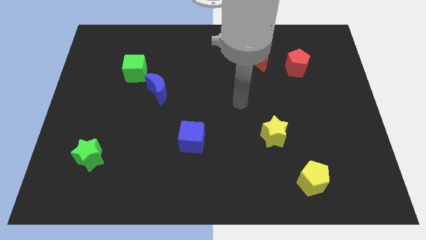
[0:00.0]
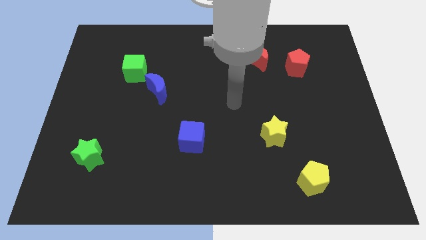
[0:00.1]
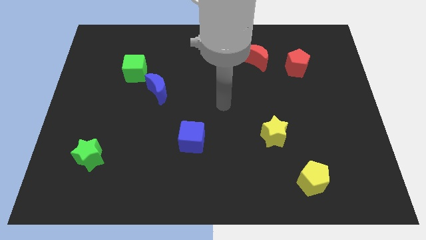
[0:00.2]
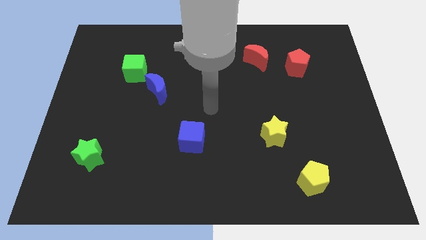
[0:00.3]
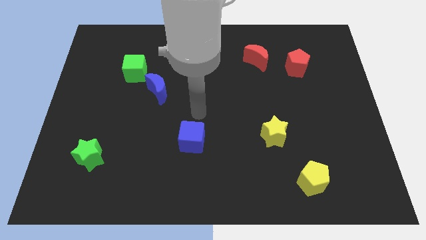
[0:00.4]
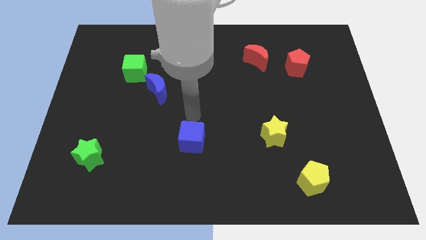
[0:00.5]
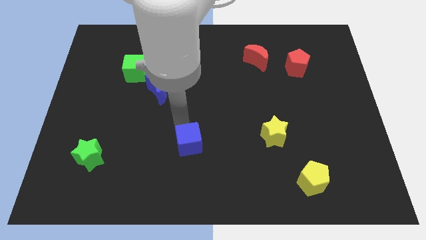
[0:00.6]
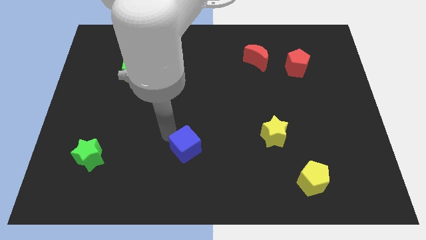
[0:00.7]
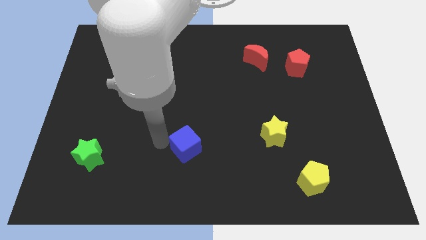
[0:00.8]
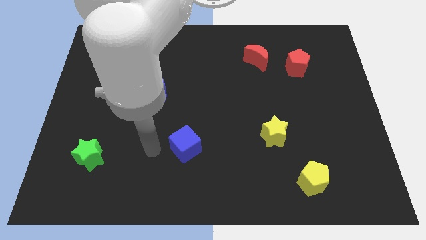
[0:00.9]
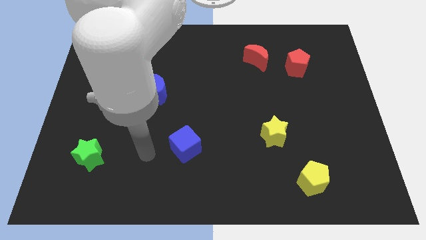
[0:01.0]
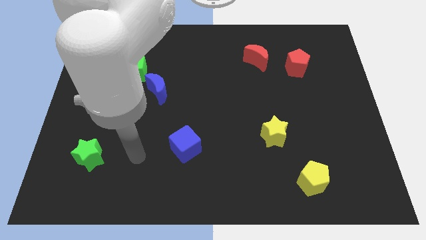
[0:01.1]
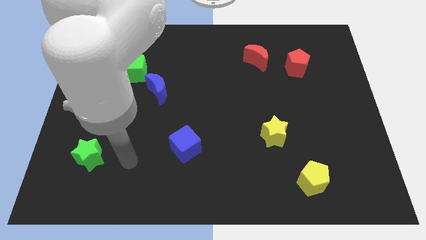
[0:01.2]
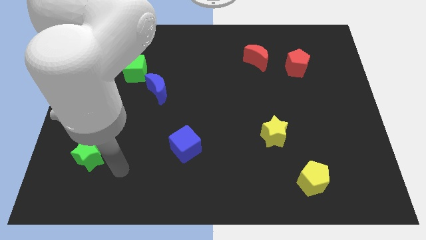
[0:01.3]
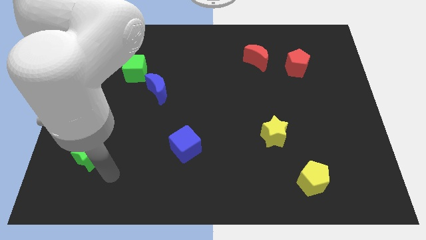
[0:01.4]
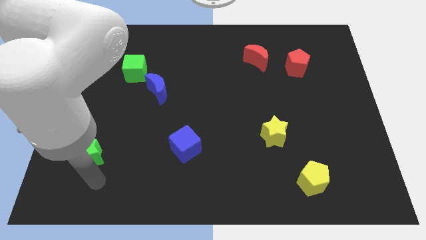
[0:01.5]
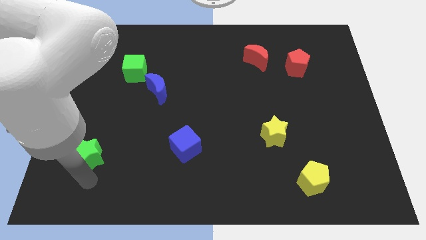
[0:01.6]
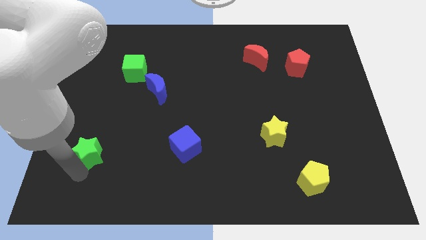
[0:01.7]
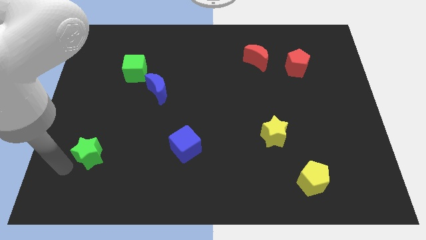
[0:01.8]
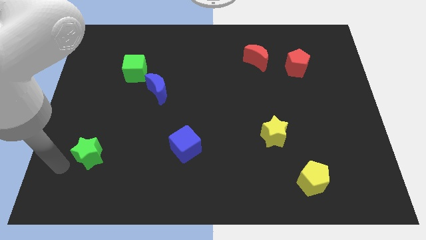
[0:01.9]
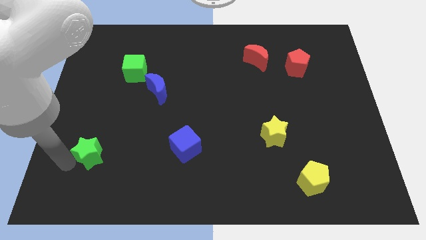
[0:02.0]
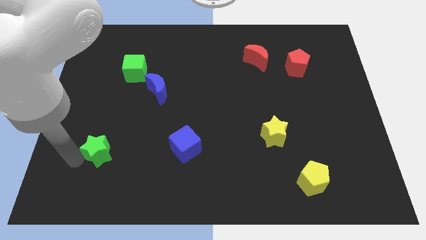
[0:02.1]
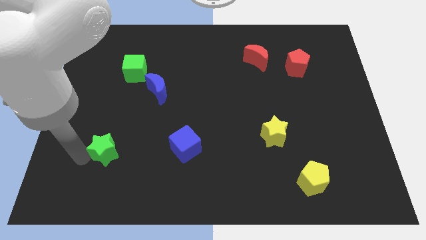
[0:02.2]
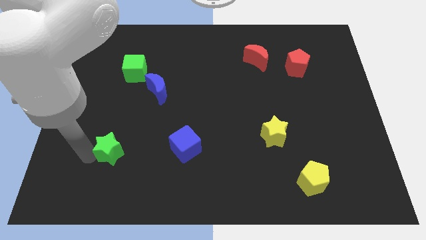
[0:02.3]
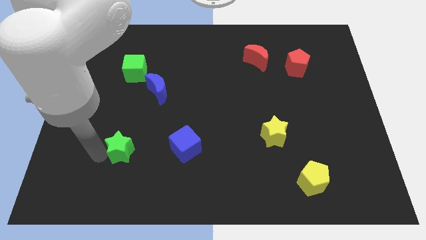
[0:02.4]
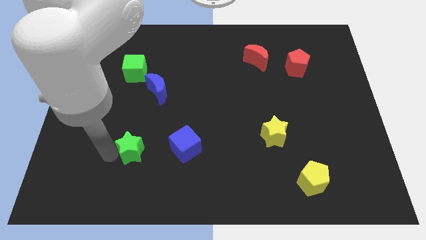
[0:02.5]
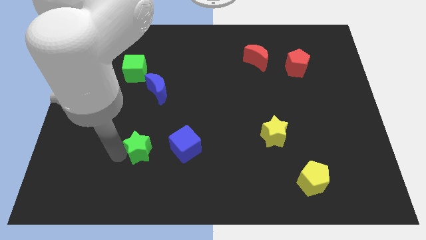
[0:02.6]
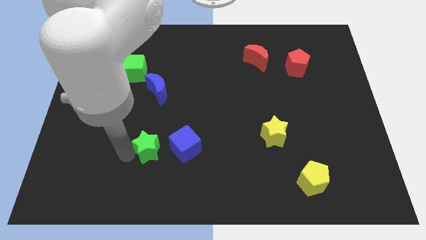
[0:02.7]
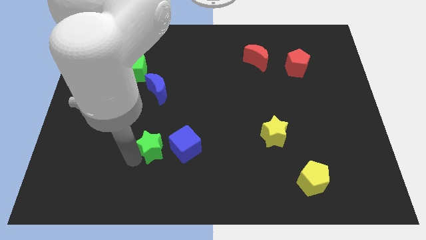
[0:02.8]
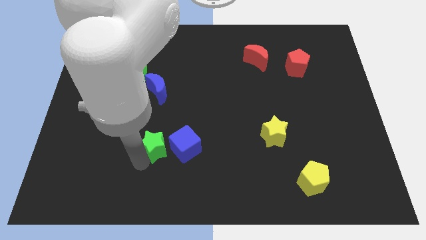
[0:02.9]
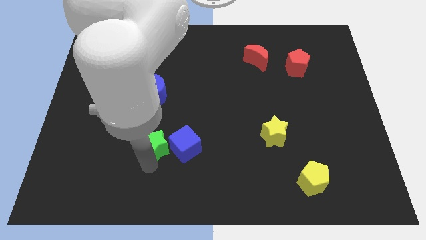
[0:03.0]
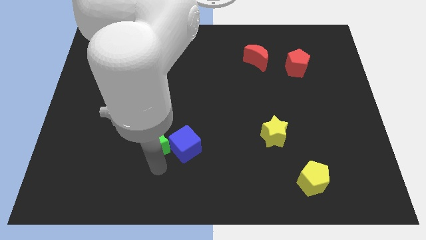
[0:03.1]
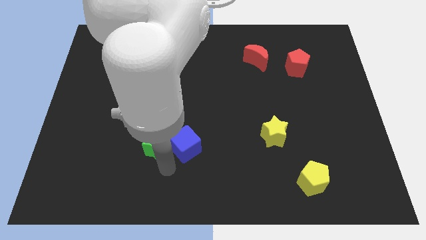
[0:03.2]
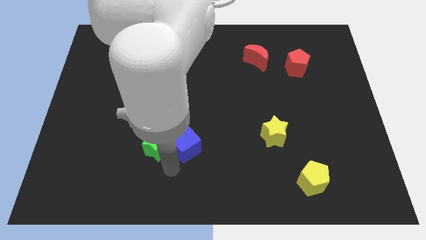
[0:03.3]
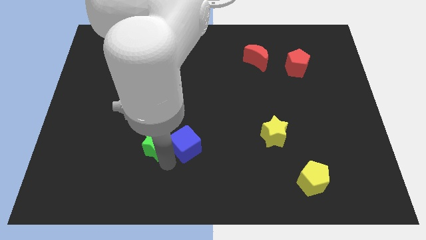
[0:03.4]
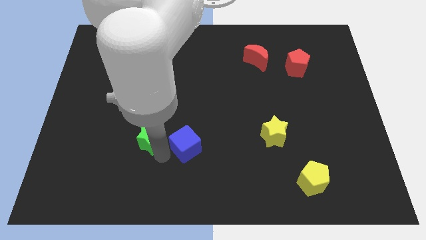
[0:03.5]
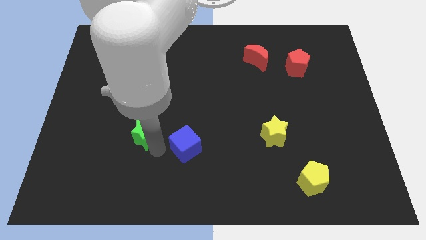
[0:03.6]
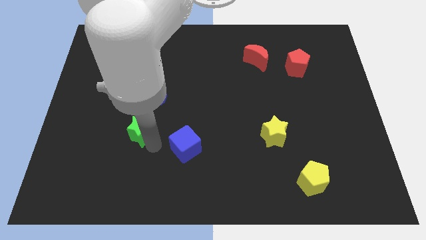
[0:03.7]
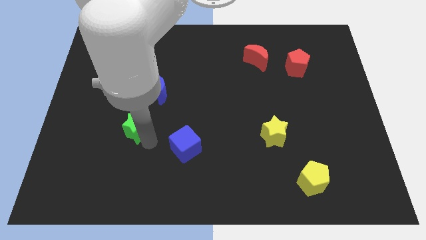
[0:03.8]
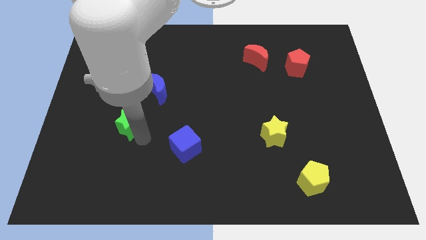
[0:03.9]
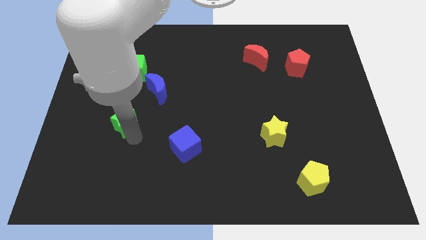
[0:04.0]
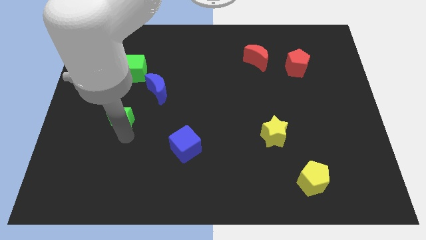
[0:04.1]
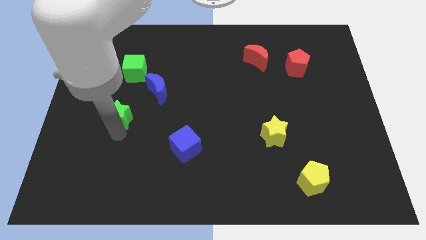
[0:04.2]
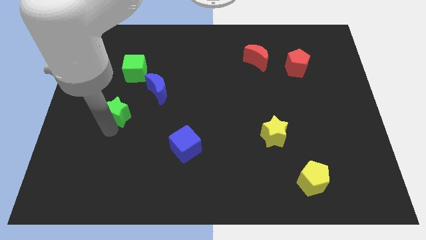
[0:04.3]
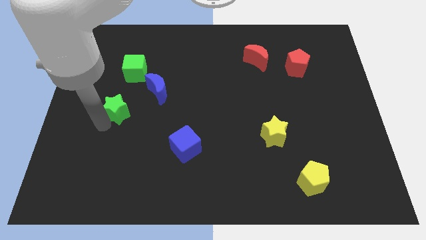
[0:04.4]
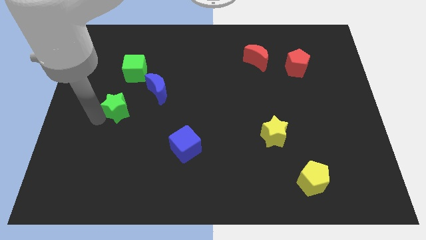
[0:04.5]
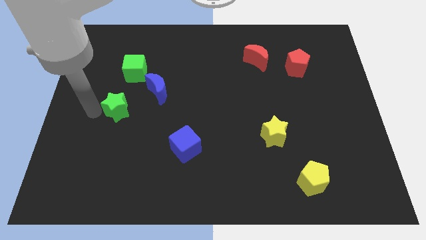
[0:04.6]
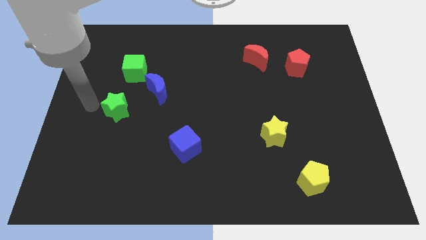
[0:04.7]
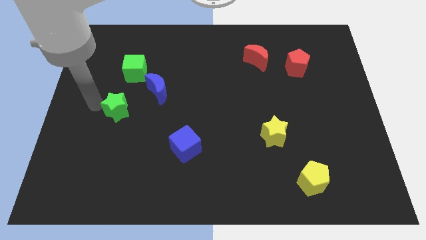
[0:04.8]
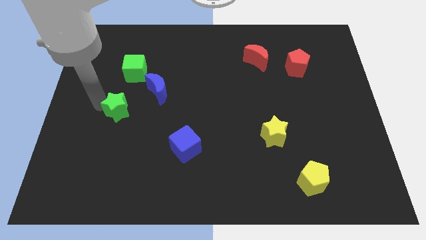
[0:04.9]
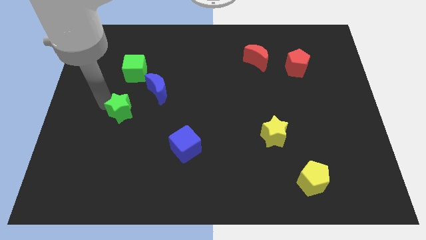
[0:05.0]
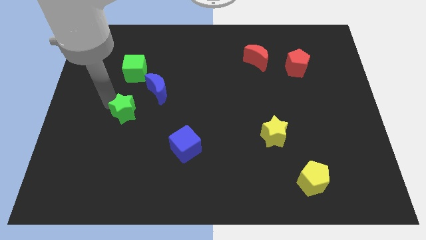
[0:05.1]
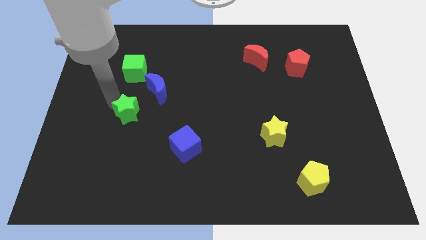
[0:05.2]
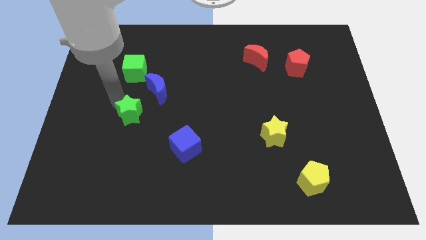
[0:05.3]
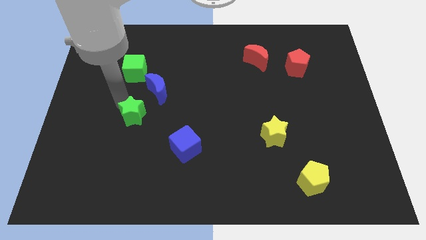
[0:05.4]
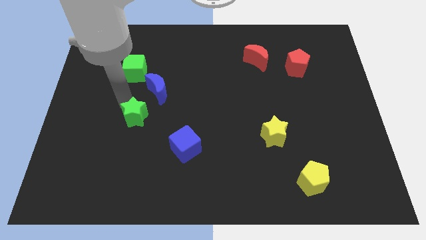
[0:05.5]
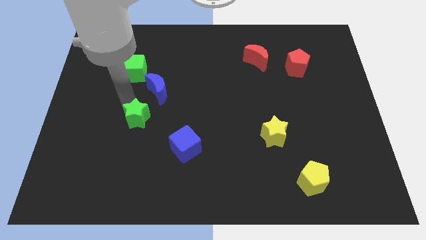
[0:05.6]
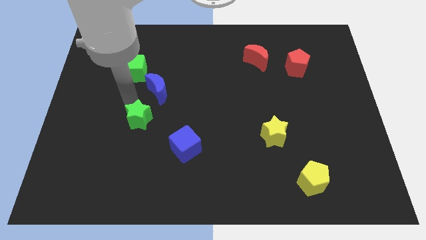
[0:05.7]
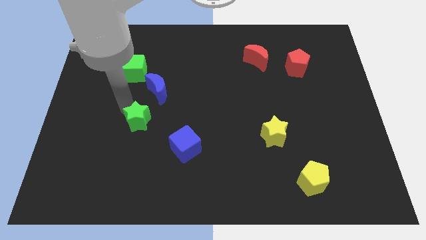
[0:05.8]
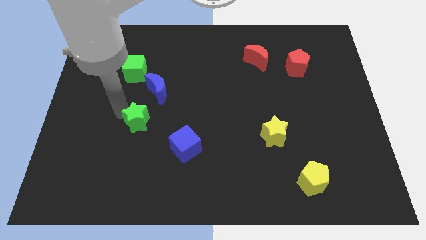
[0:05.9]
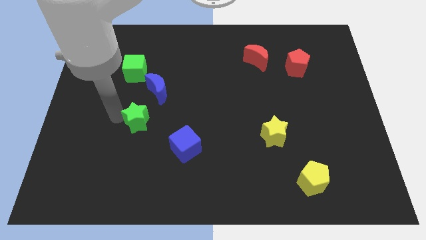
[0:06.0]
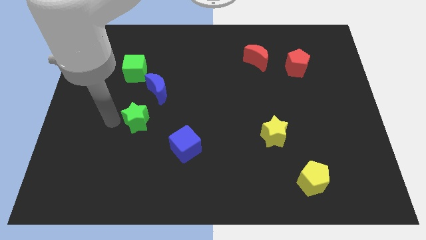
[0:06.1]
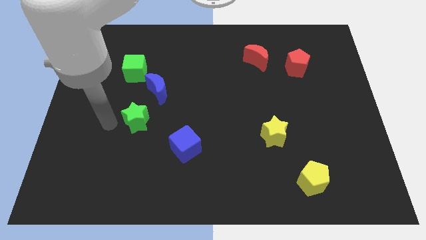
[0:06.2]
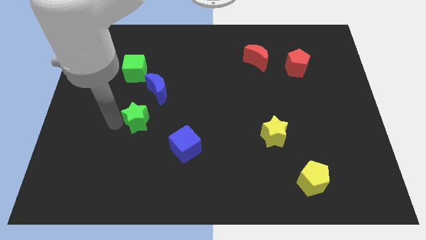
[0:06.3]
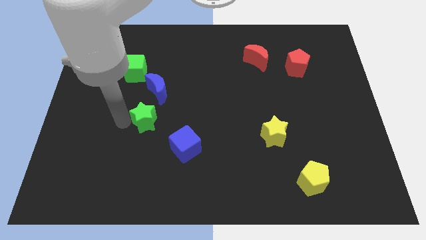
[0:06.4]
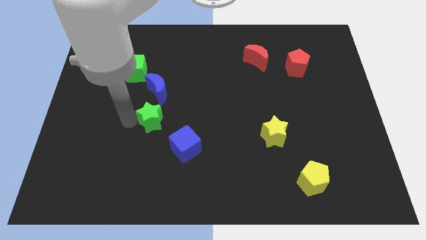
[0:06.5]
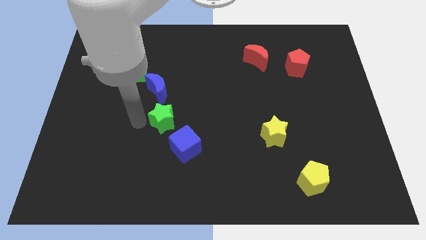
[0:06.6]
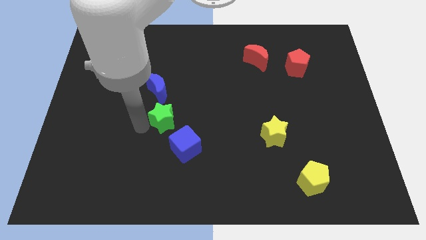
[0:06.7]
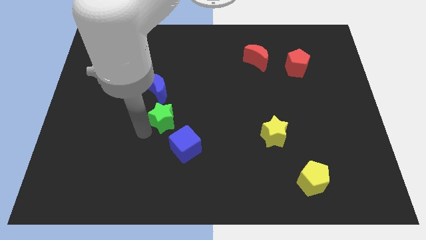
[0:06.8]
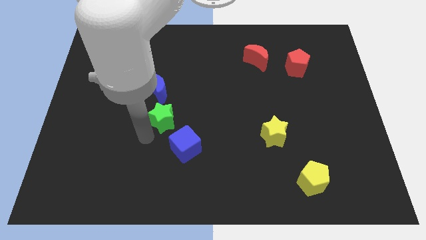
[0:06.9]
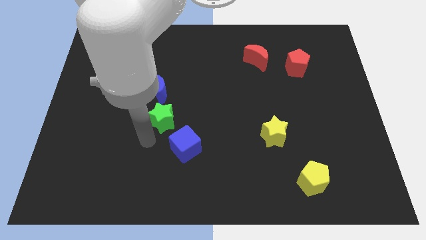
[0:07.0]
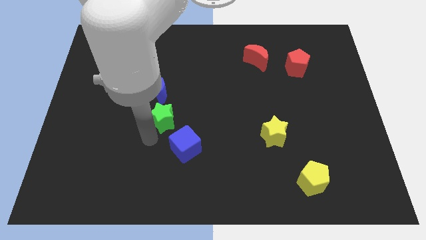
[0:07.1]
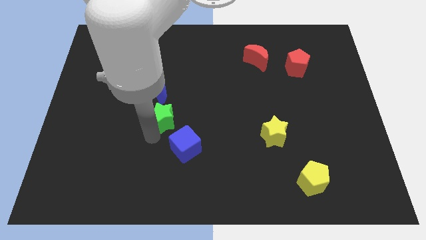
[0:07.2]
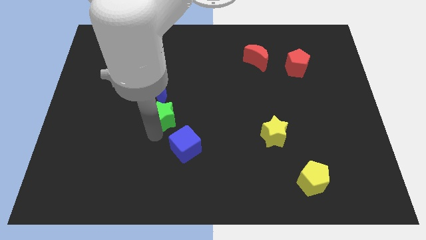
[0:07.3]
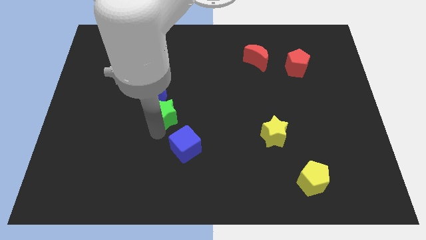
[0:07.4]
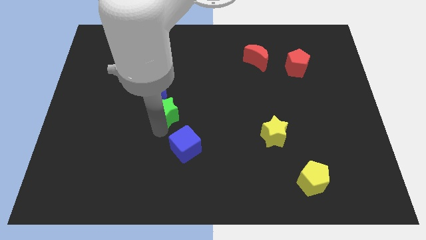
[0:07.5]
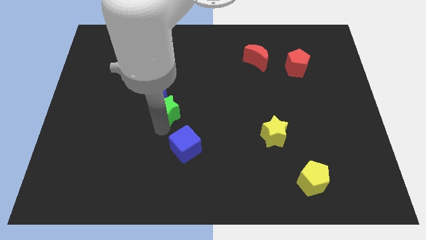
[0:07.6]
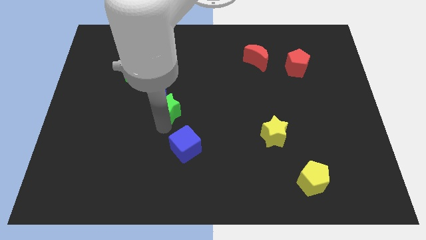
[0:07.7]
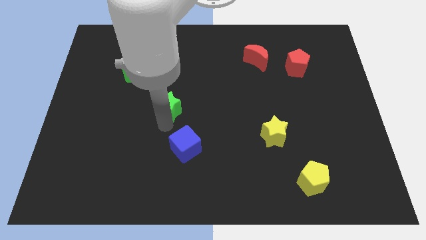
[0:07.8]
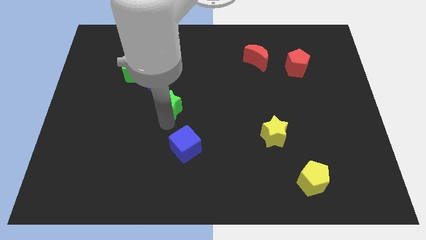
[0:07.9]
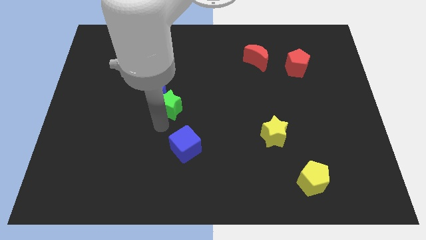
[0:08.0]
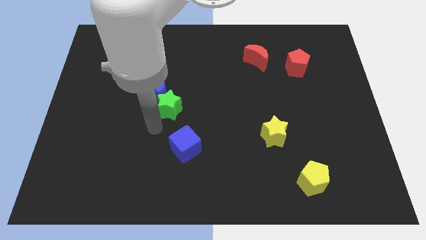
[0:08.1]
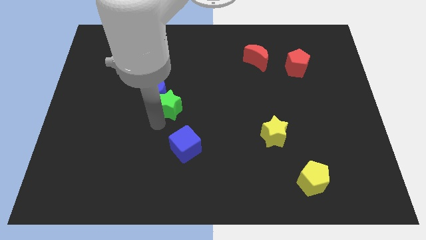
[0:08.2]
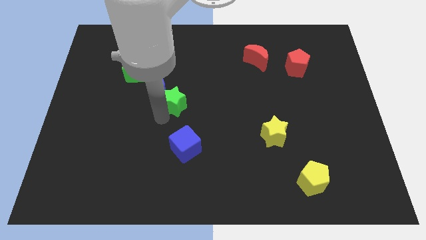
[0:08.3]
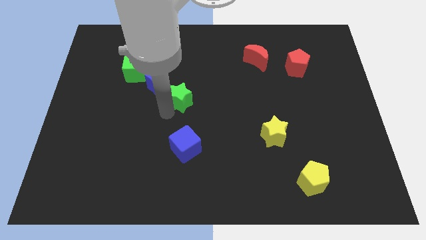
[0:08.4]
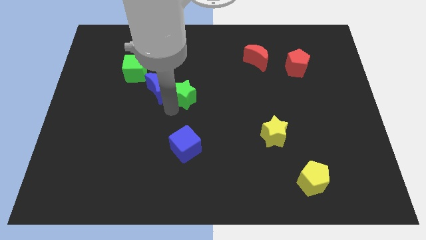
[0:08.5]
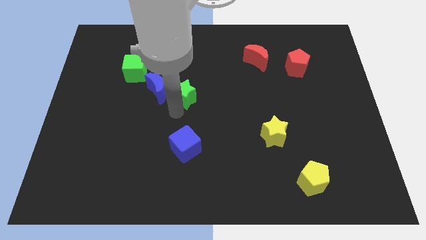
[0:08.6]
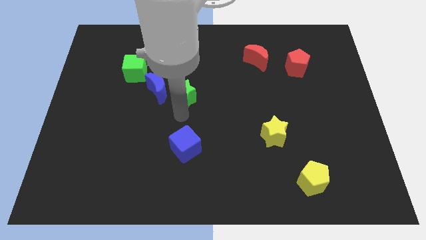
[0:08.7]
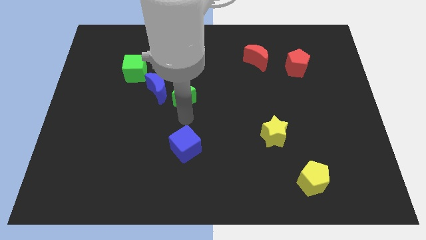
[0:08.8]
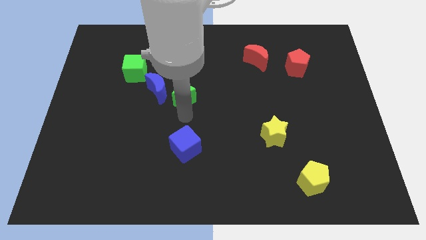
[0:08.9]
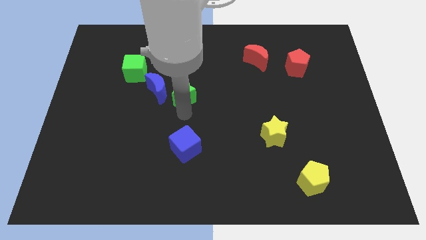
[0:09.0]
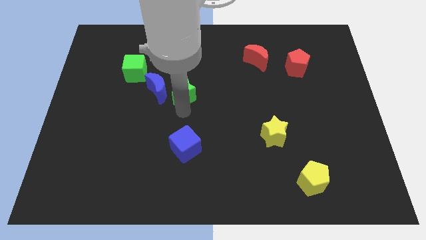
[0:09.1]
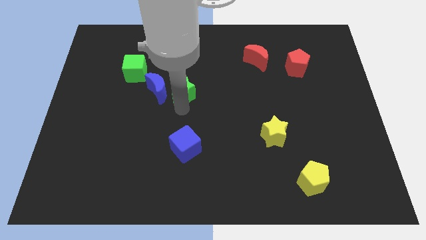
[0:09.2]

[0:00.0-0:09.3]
move the green star to the top right side of the blue moon
